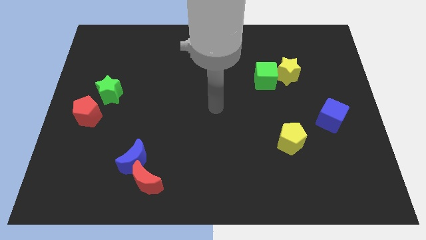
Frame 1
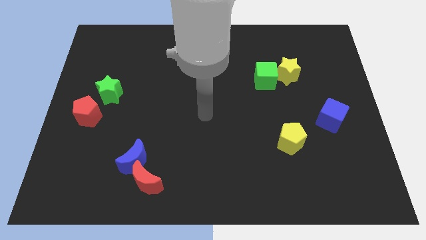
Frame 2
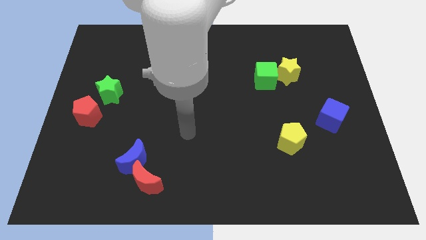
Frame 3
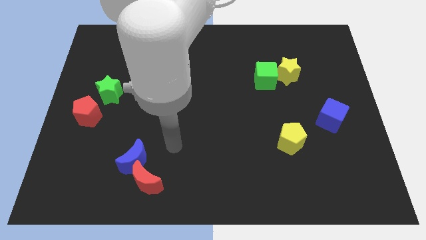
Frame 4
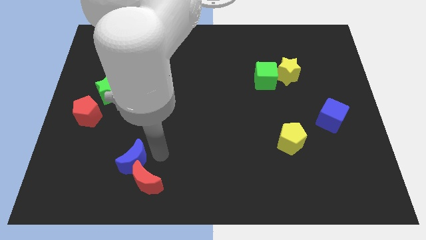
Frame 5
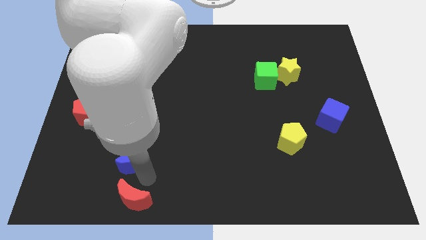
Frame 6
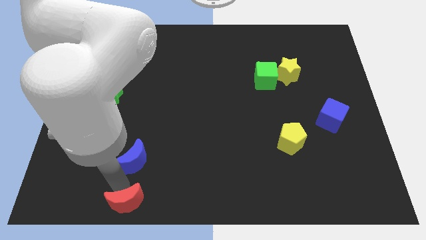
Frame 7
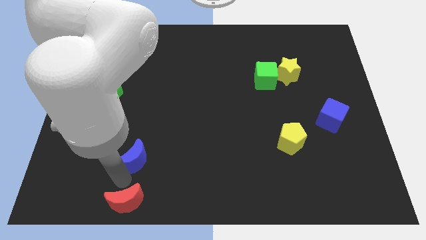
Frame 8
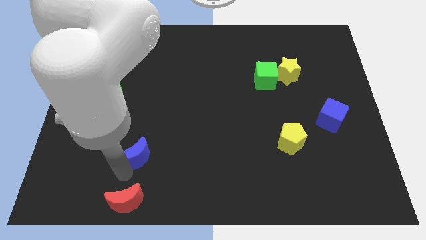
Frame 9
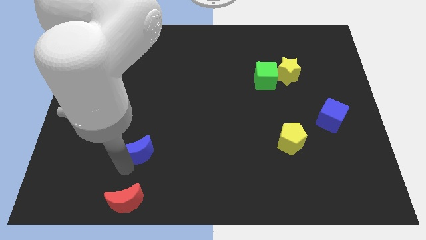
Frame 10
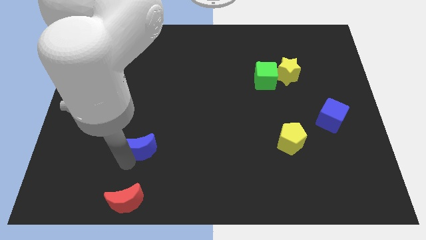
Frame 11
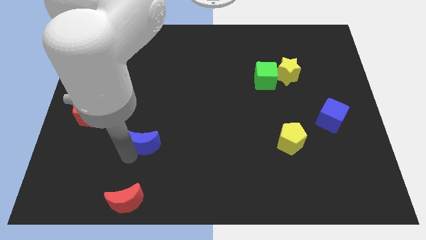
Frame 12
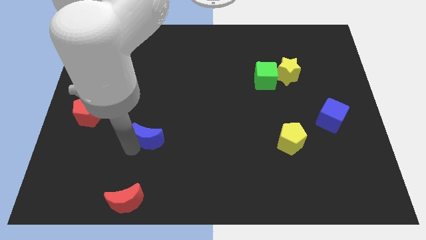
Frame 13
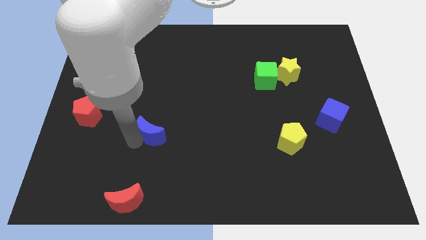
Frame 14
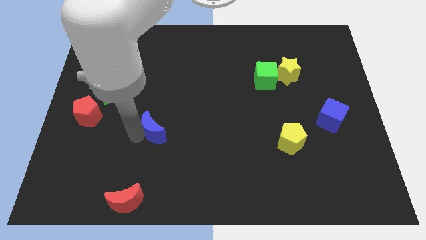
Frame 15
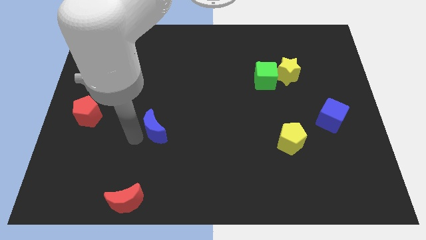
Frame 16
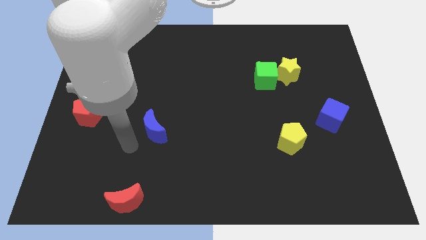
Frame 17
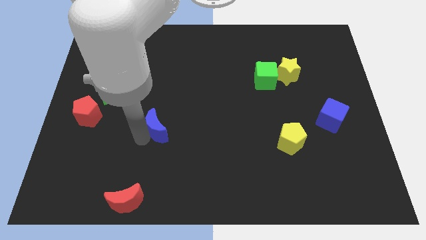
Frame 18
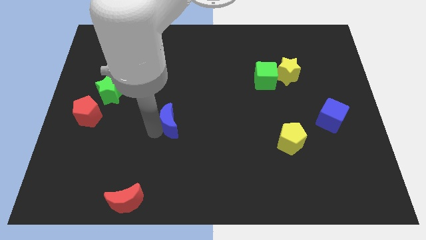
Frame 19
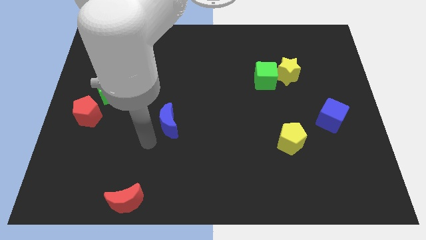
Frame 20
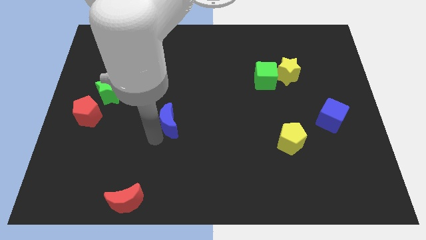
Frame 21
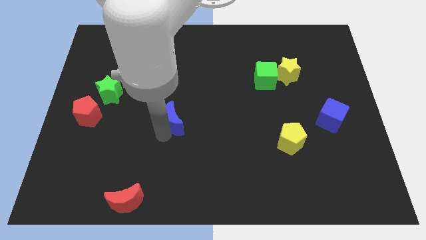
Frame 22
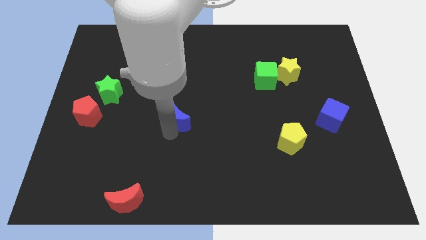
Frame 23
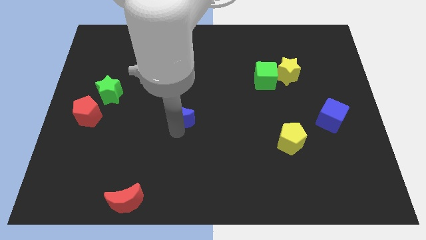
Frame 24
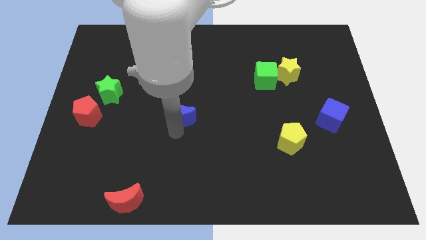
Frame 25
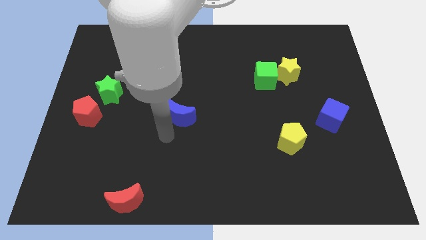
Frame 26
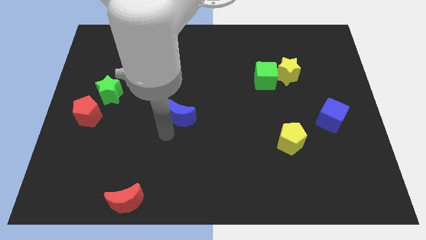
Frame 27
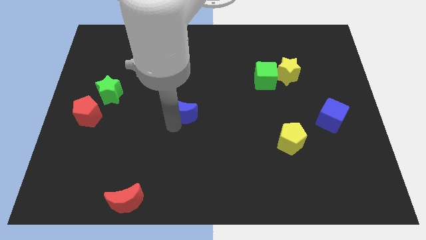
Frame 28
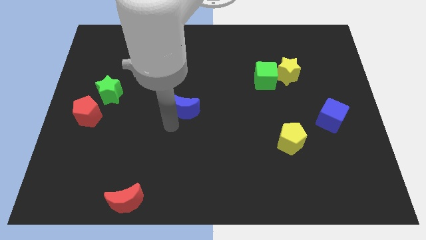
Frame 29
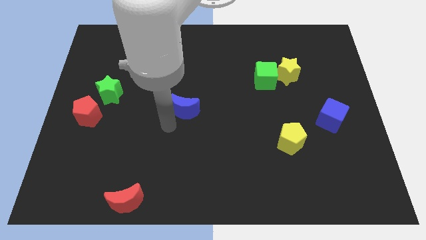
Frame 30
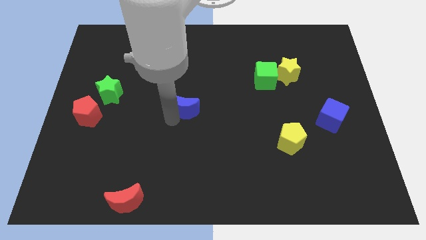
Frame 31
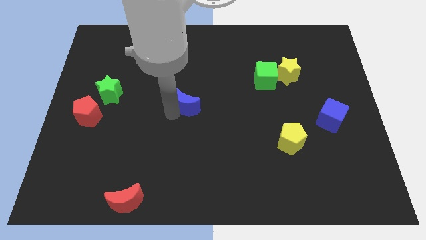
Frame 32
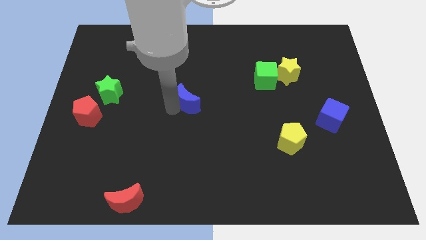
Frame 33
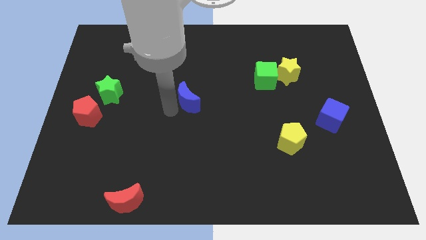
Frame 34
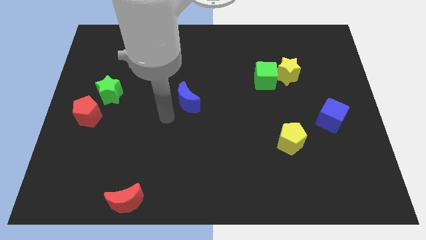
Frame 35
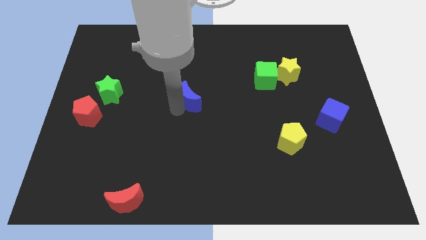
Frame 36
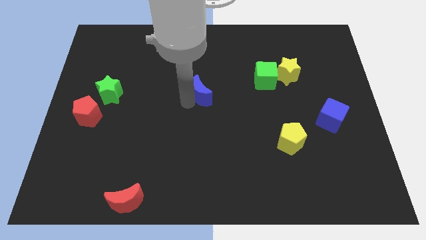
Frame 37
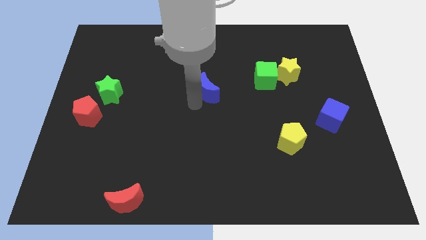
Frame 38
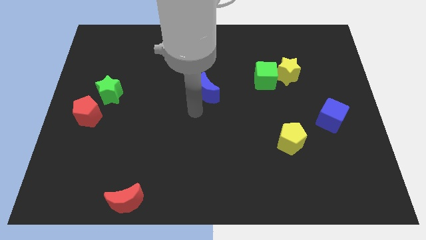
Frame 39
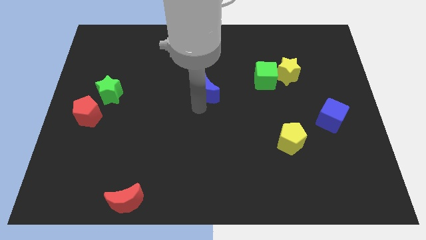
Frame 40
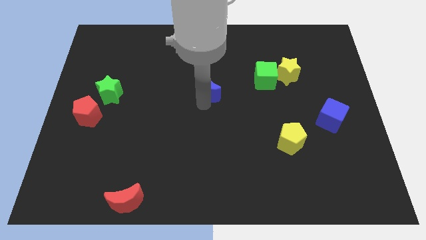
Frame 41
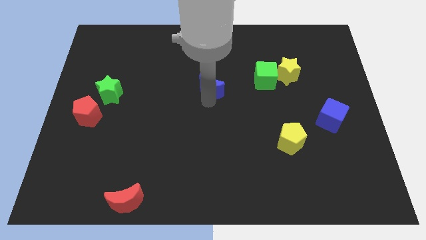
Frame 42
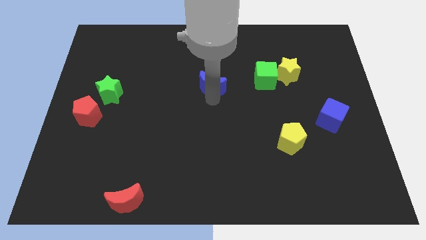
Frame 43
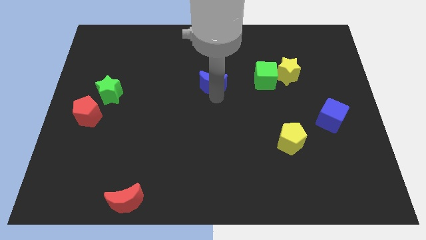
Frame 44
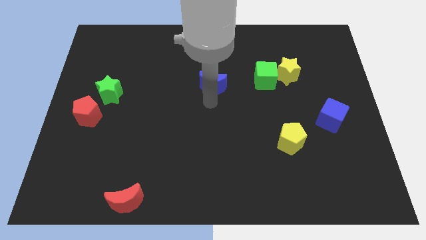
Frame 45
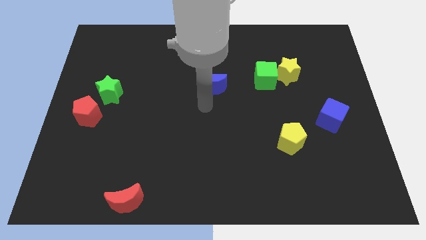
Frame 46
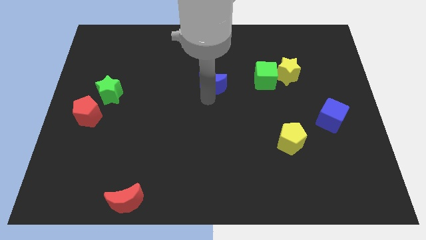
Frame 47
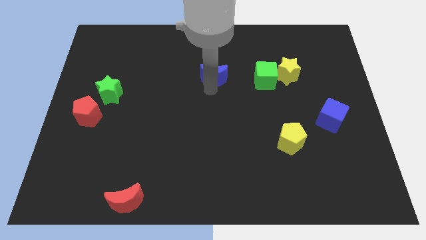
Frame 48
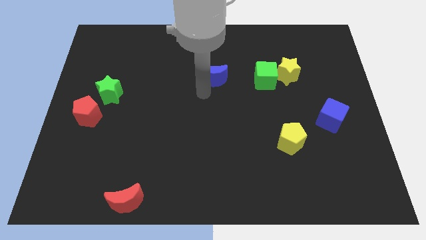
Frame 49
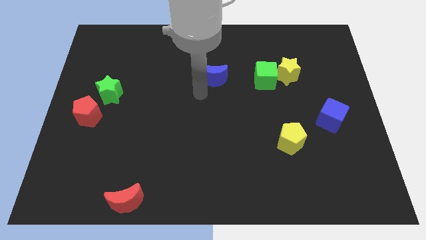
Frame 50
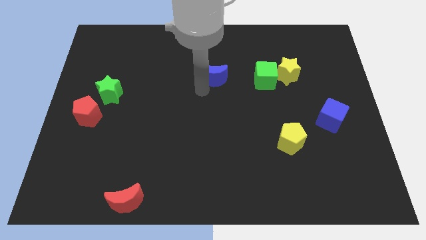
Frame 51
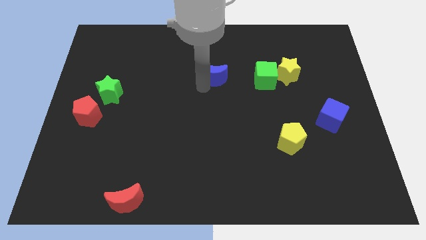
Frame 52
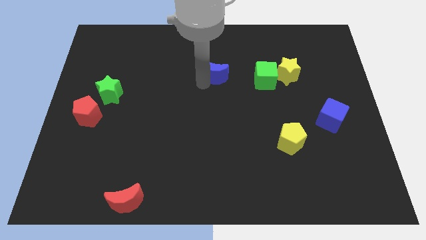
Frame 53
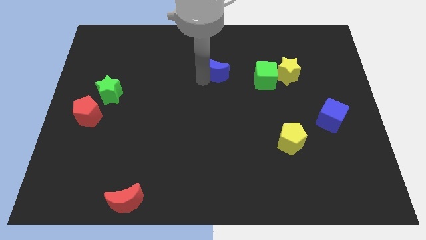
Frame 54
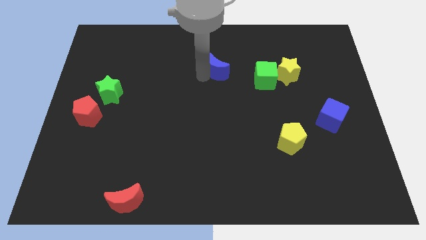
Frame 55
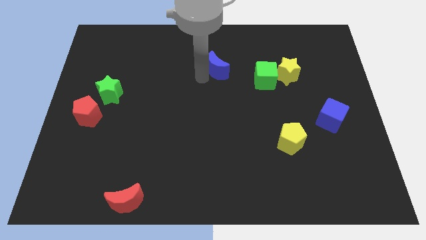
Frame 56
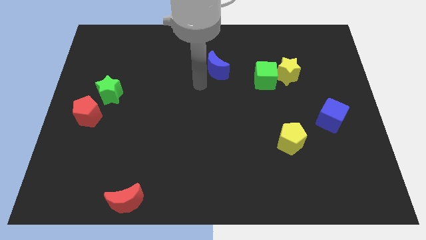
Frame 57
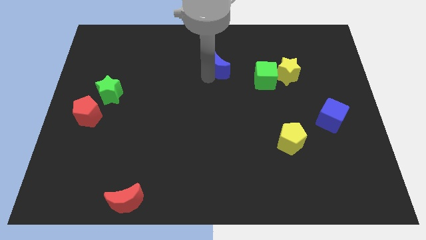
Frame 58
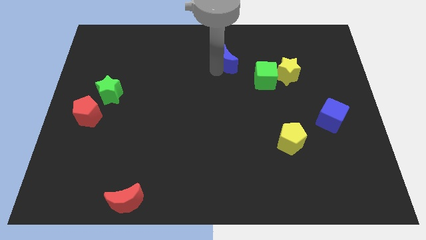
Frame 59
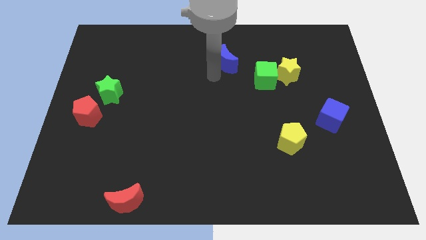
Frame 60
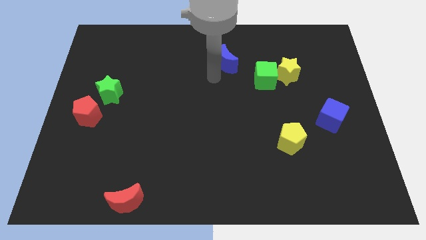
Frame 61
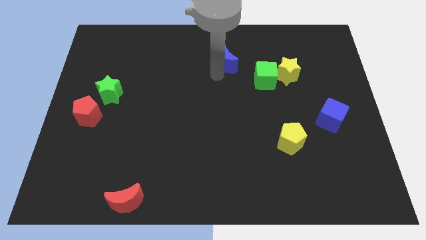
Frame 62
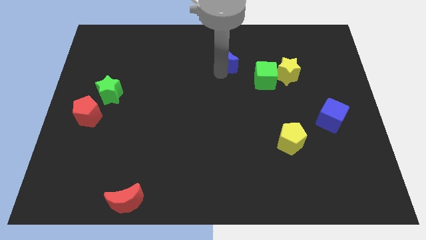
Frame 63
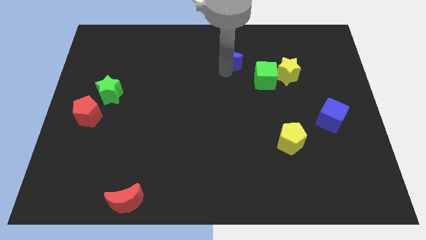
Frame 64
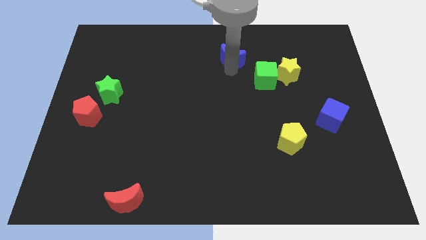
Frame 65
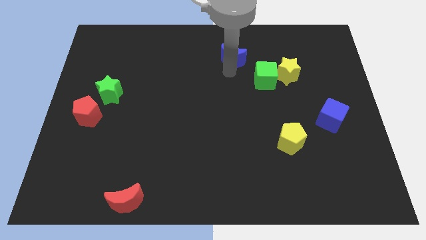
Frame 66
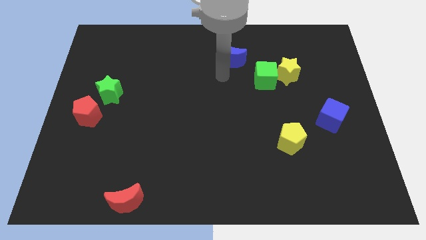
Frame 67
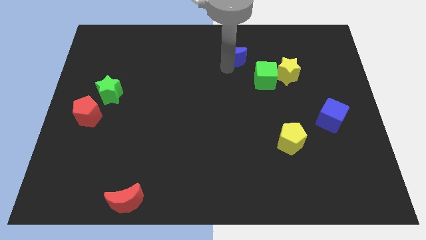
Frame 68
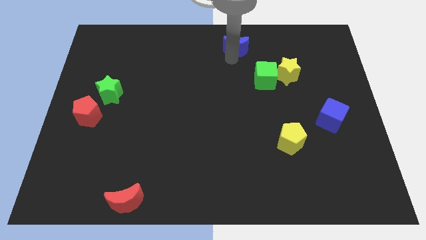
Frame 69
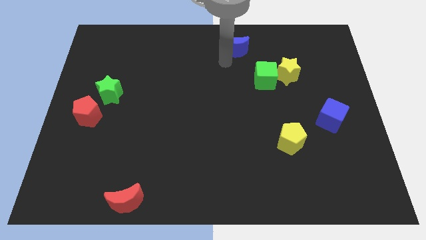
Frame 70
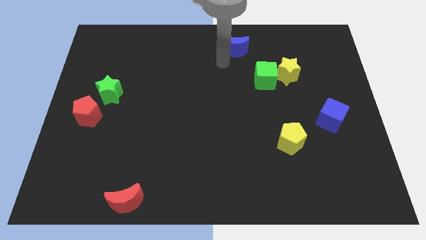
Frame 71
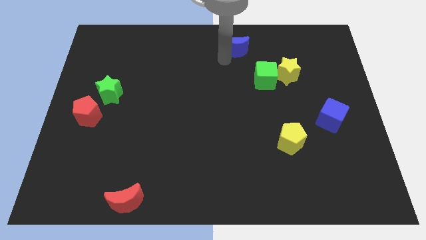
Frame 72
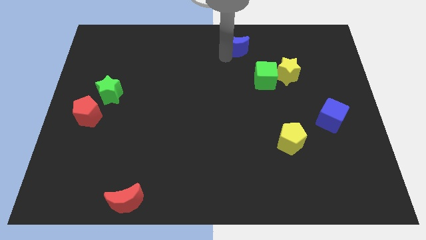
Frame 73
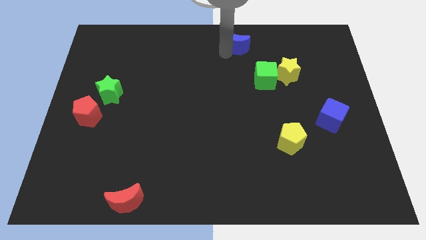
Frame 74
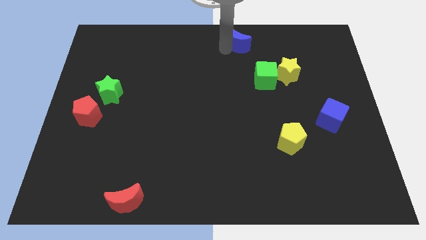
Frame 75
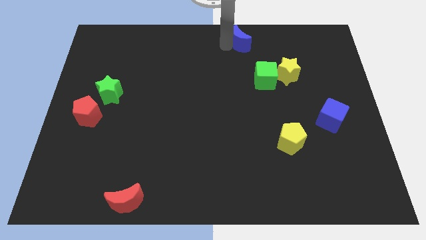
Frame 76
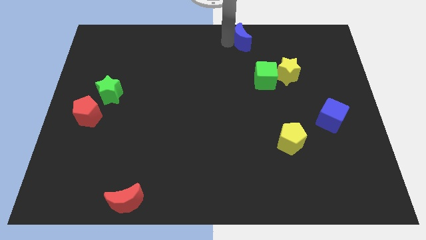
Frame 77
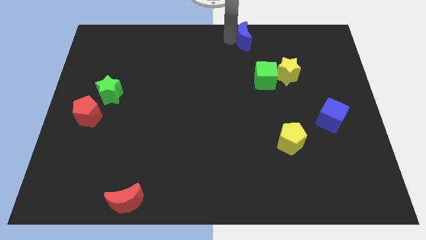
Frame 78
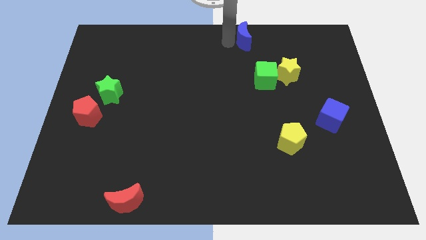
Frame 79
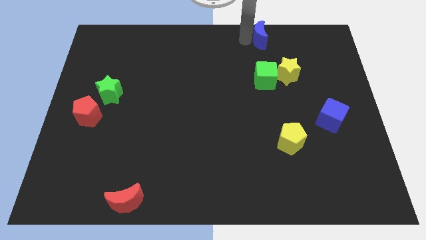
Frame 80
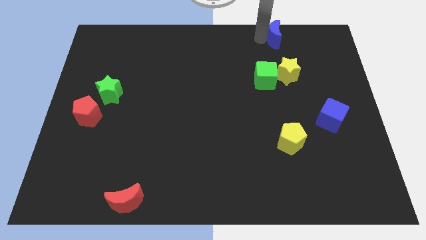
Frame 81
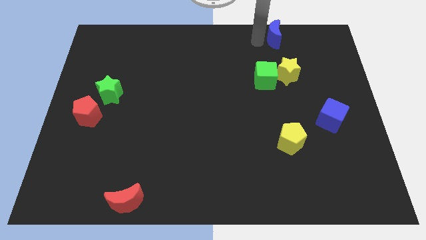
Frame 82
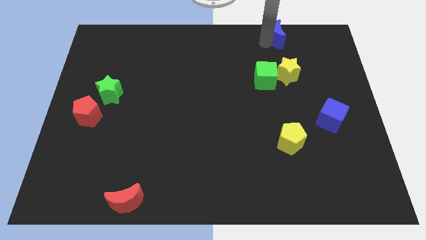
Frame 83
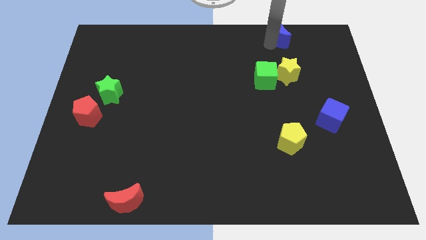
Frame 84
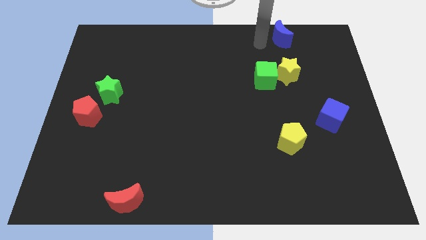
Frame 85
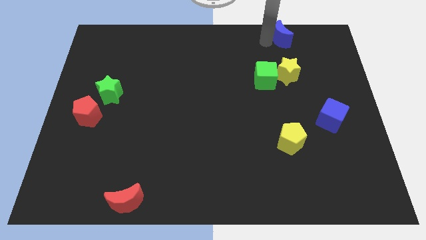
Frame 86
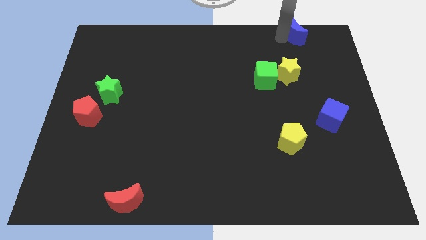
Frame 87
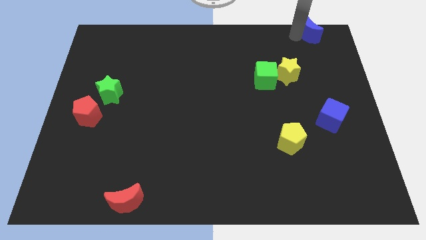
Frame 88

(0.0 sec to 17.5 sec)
move the blue moon to the top right of the board
